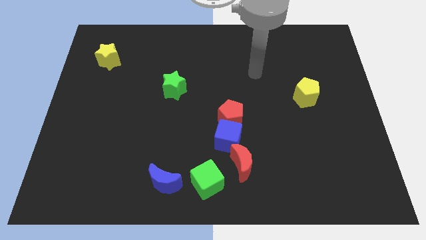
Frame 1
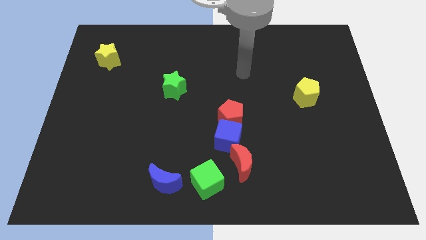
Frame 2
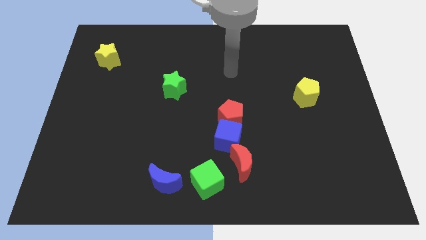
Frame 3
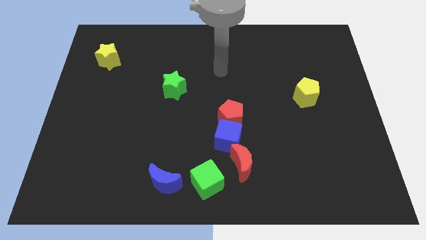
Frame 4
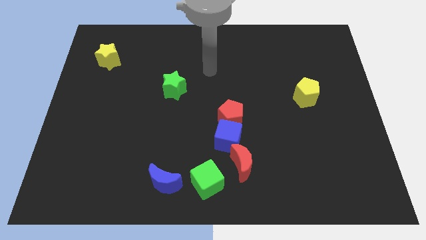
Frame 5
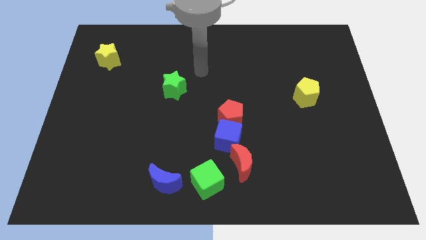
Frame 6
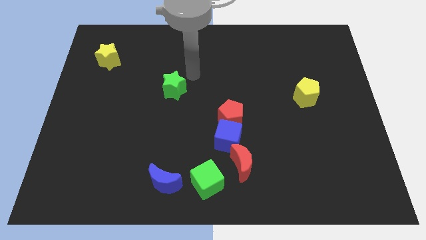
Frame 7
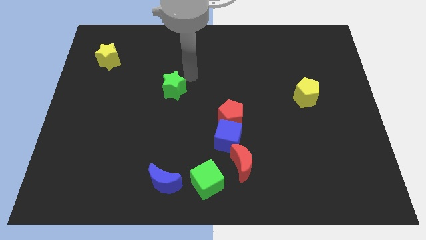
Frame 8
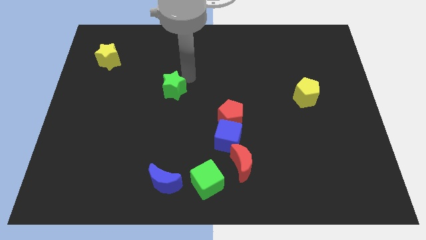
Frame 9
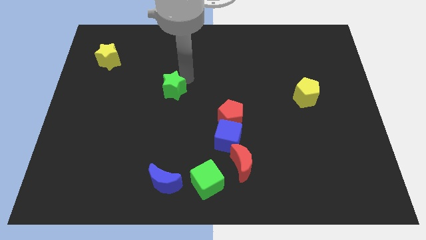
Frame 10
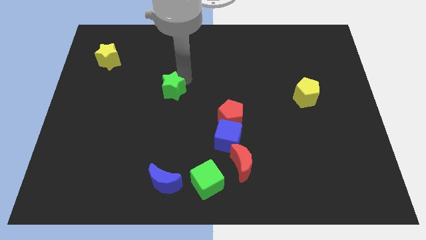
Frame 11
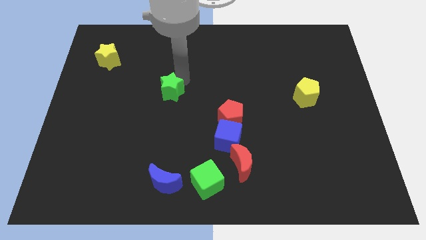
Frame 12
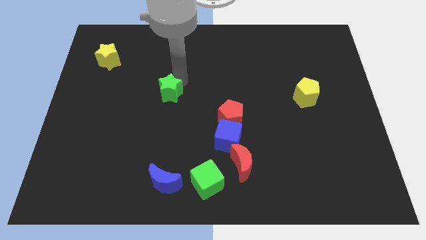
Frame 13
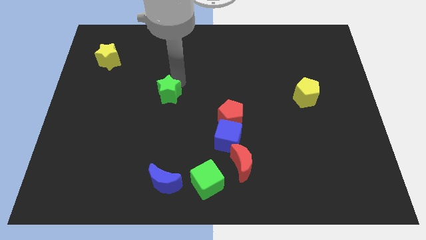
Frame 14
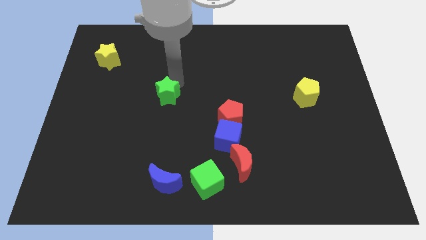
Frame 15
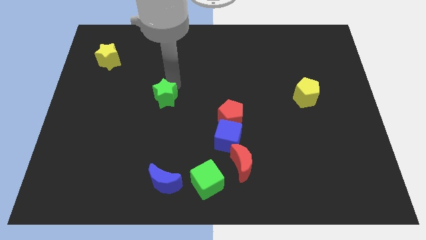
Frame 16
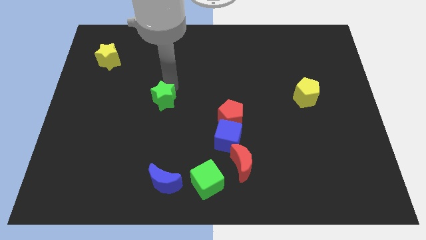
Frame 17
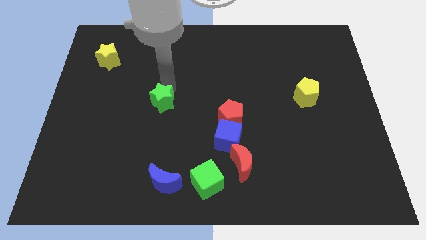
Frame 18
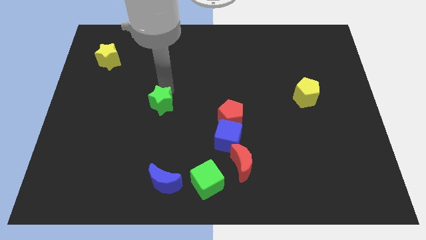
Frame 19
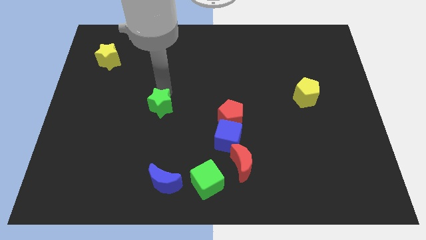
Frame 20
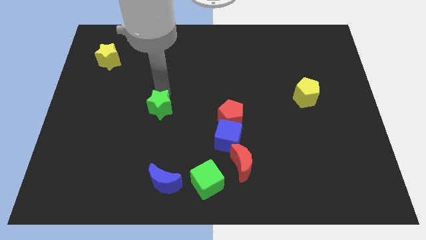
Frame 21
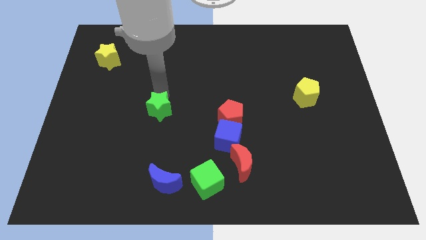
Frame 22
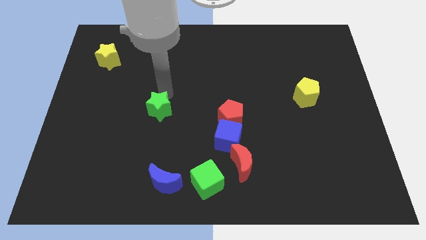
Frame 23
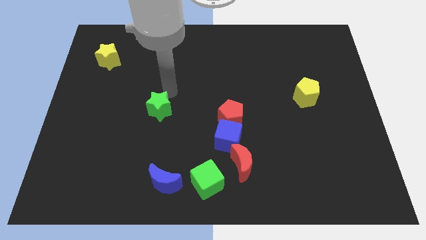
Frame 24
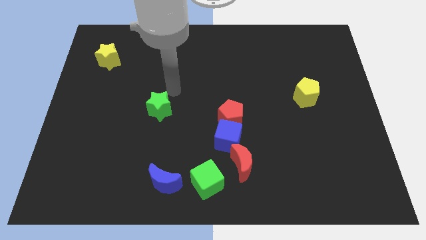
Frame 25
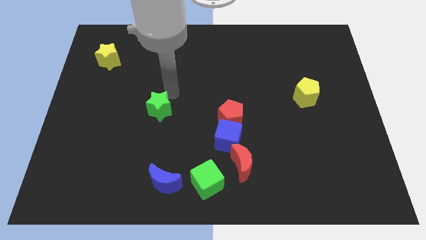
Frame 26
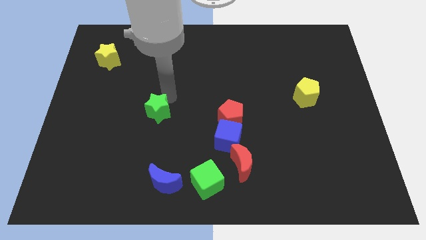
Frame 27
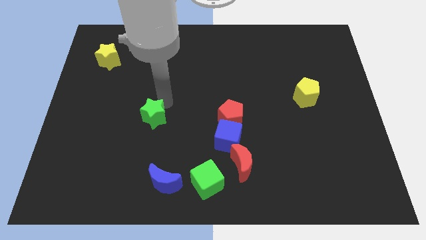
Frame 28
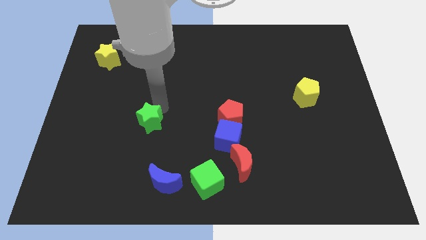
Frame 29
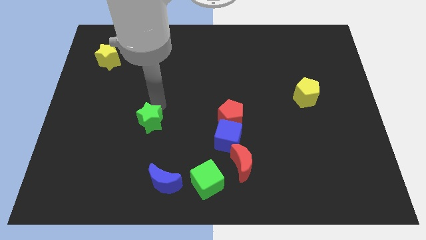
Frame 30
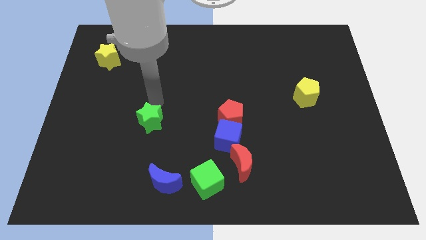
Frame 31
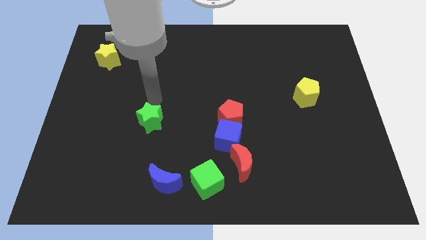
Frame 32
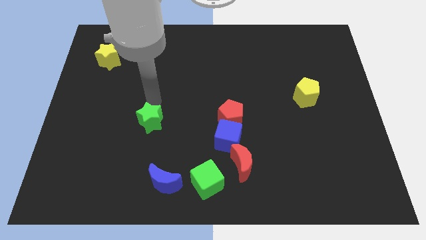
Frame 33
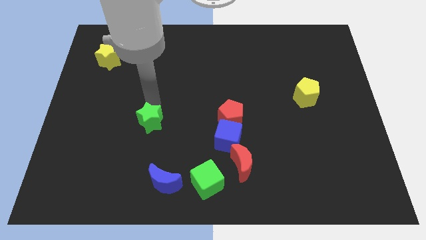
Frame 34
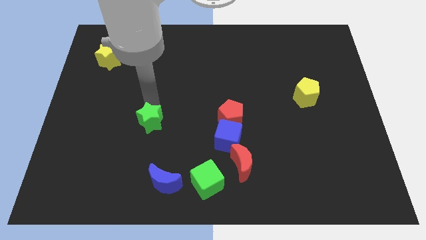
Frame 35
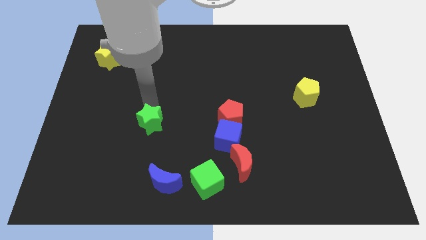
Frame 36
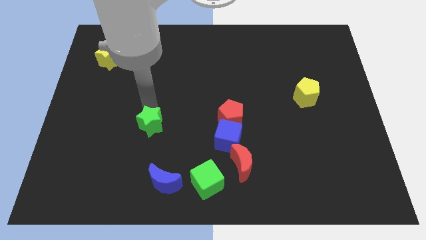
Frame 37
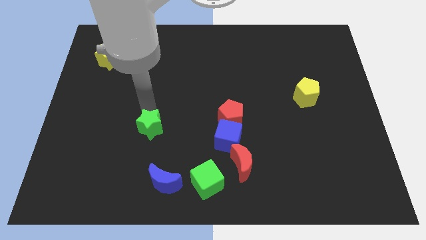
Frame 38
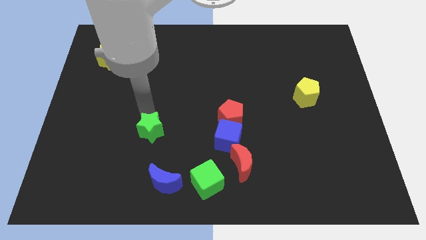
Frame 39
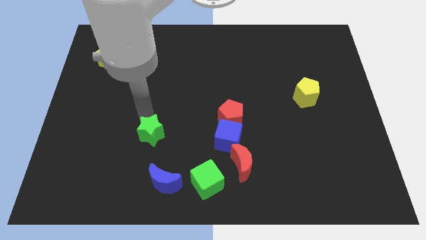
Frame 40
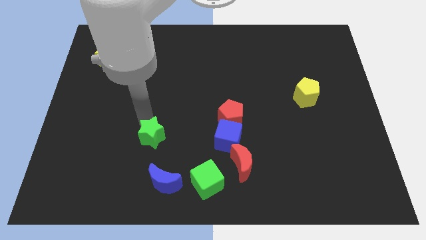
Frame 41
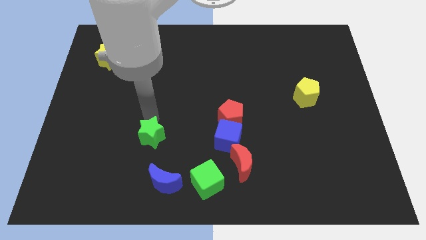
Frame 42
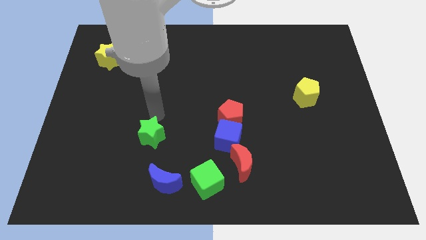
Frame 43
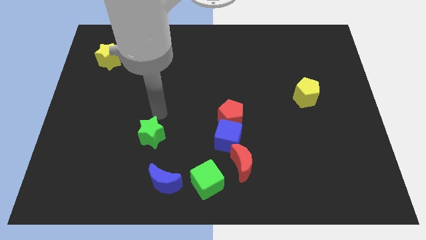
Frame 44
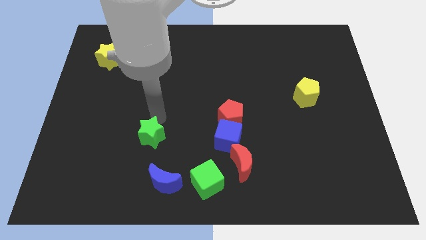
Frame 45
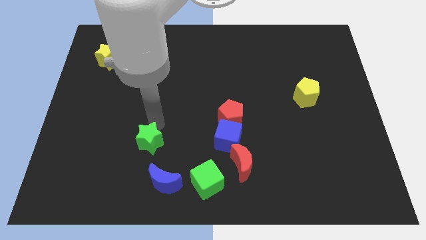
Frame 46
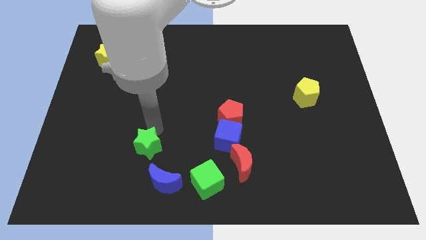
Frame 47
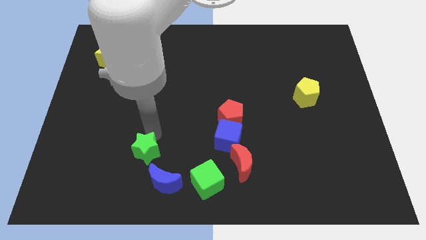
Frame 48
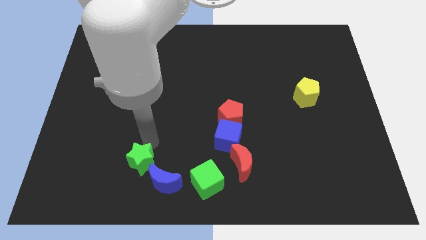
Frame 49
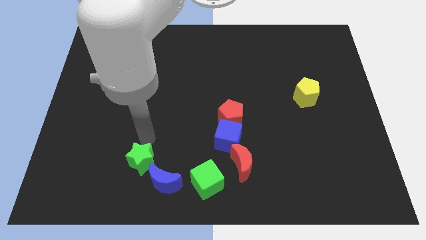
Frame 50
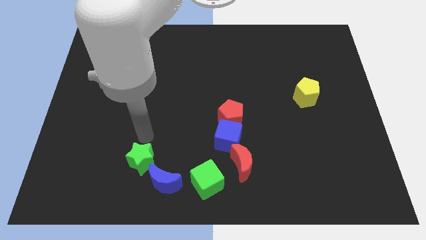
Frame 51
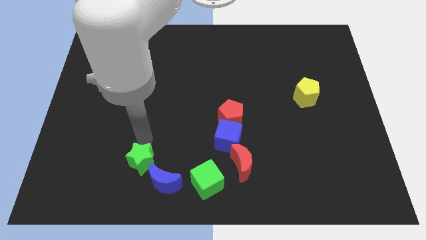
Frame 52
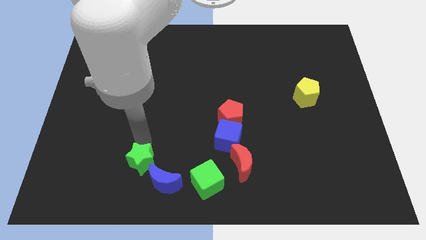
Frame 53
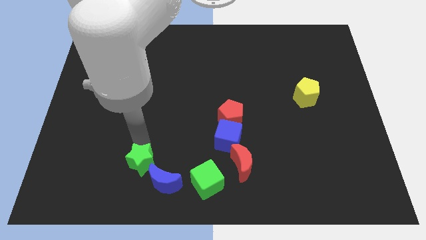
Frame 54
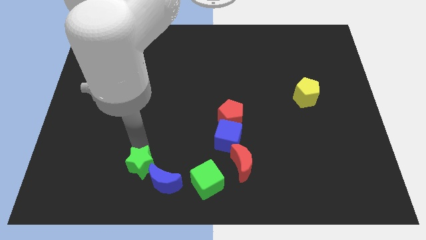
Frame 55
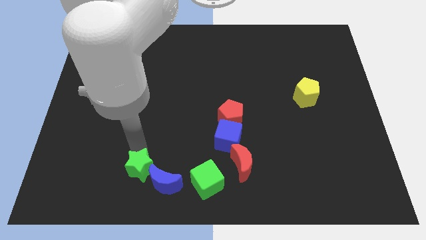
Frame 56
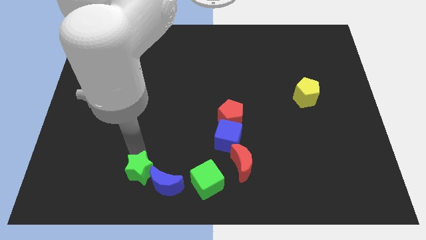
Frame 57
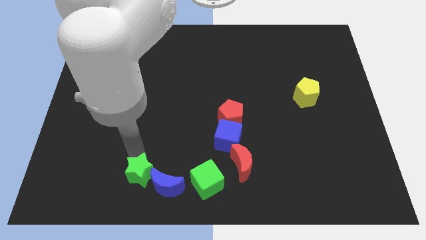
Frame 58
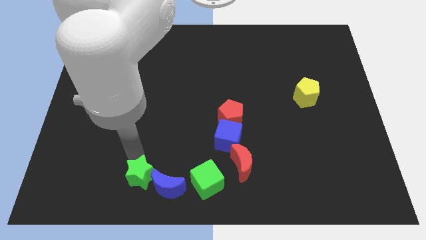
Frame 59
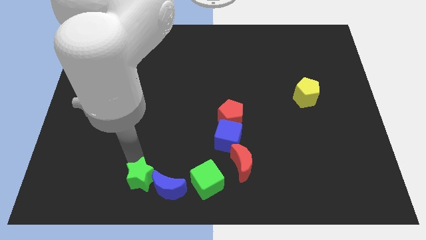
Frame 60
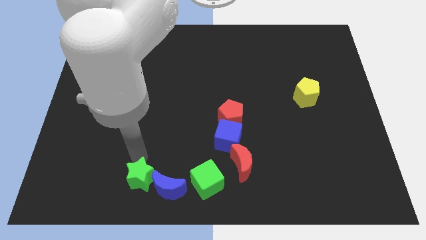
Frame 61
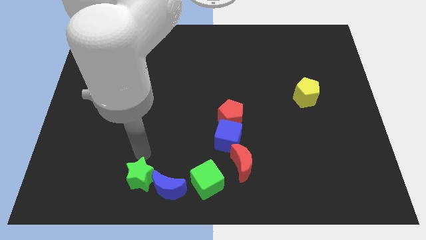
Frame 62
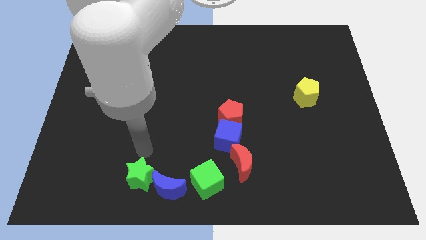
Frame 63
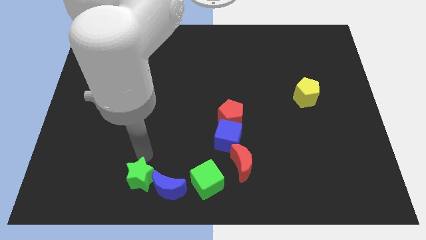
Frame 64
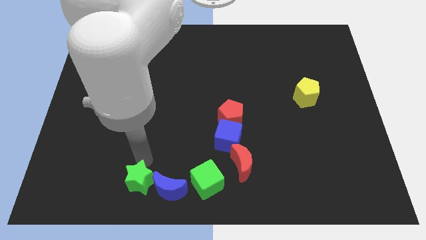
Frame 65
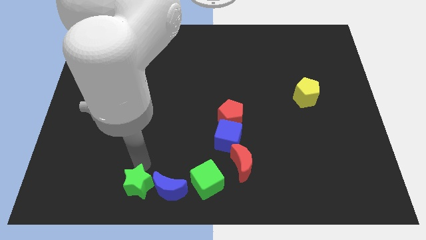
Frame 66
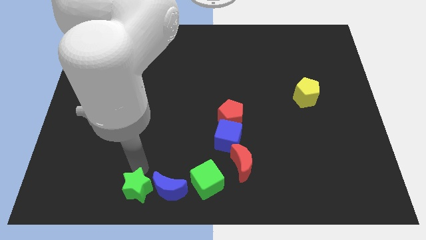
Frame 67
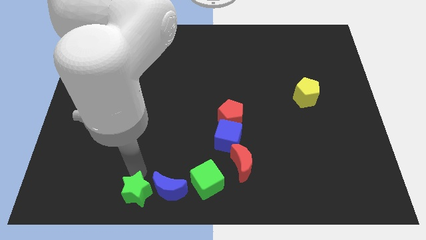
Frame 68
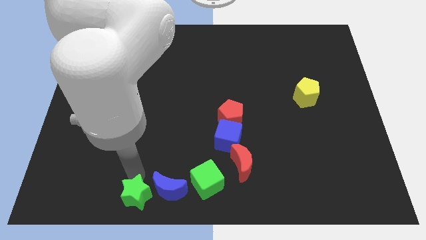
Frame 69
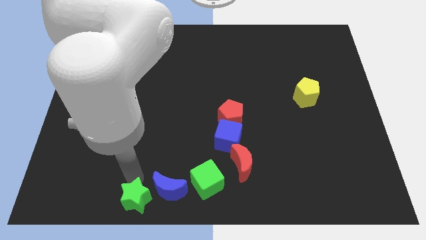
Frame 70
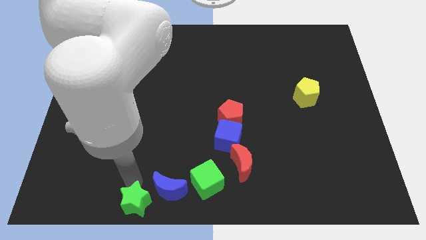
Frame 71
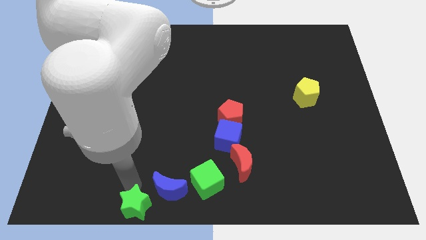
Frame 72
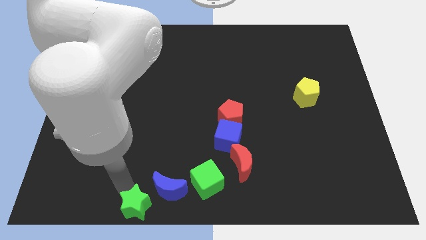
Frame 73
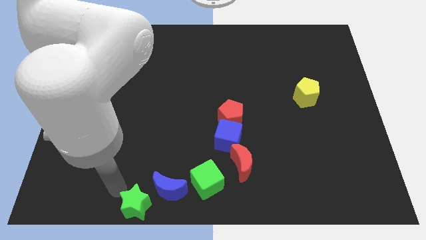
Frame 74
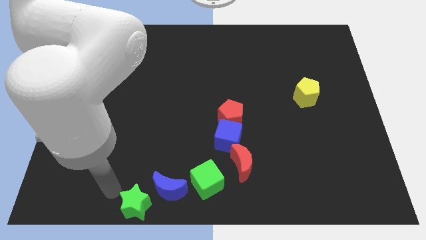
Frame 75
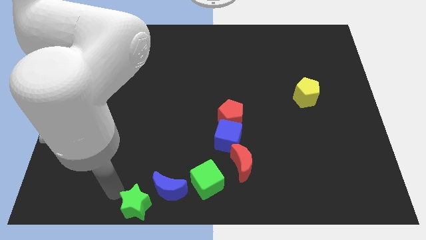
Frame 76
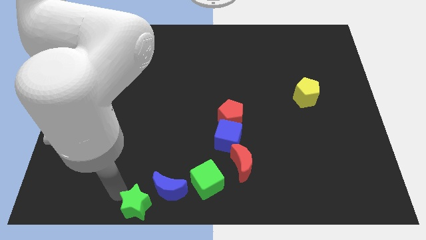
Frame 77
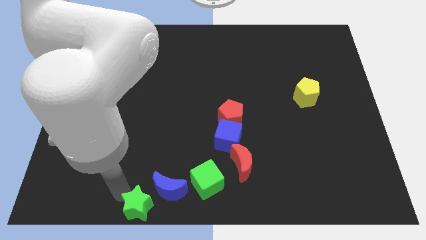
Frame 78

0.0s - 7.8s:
slide the green star to the bottom

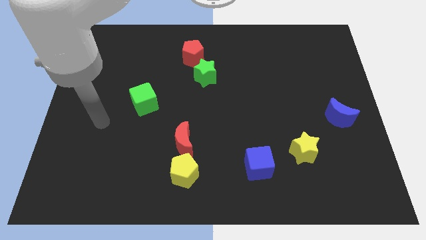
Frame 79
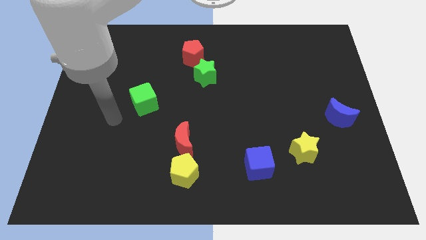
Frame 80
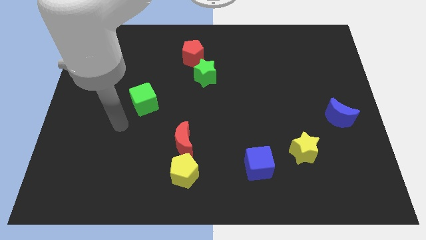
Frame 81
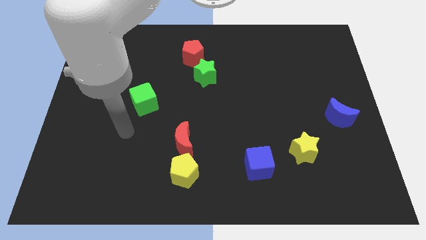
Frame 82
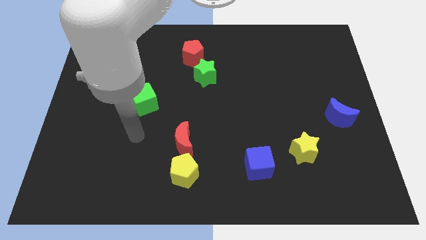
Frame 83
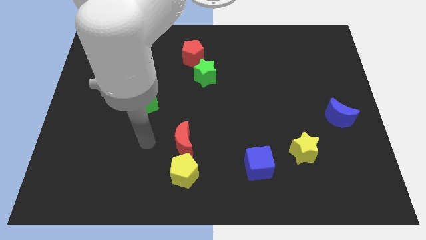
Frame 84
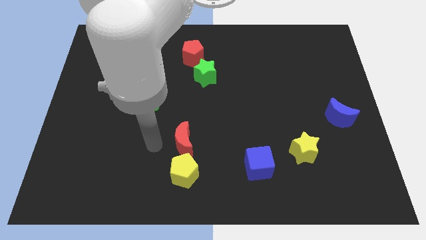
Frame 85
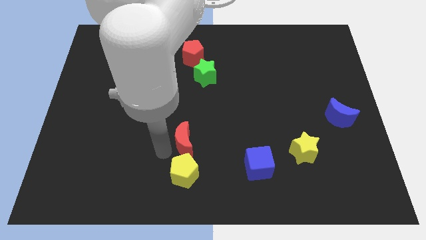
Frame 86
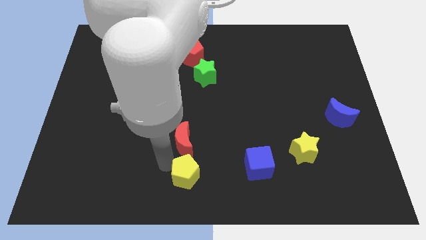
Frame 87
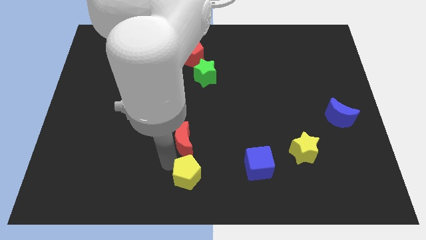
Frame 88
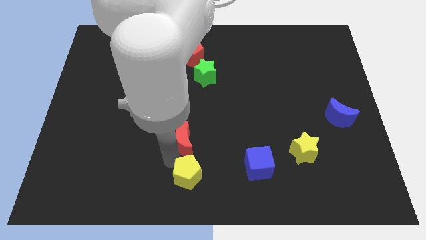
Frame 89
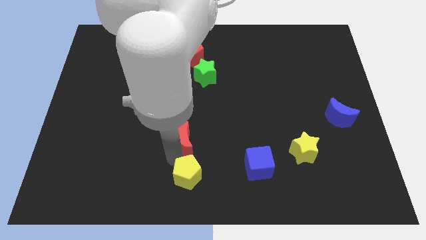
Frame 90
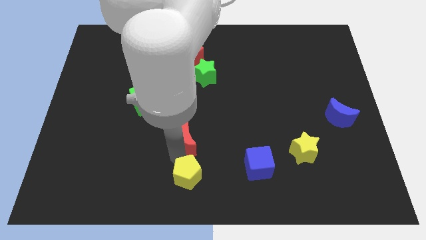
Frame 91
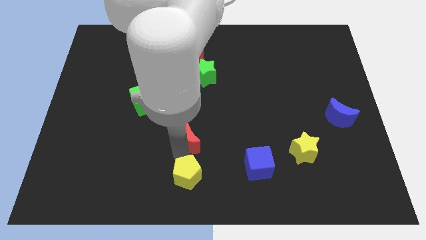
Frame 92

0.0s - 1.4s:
put the red moon to the middle
